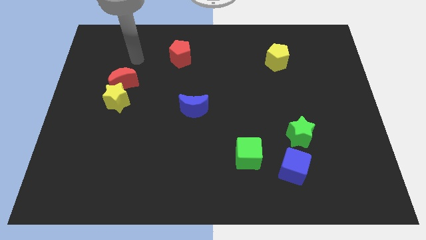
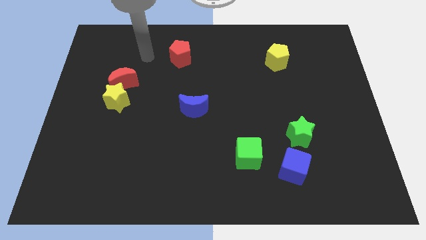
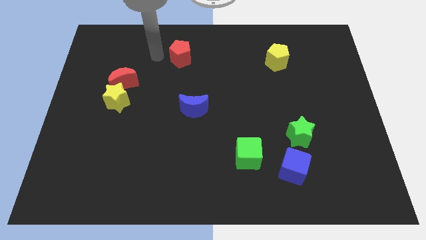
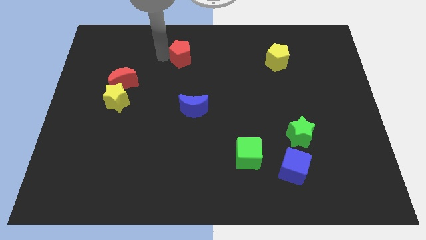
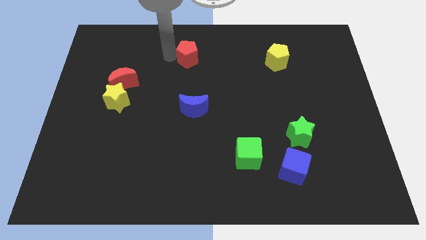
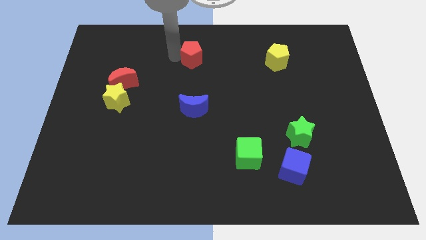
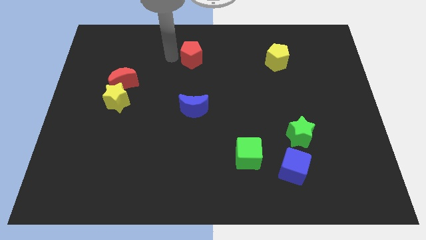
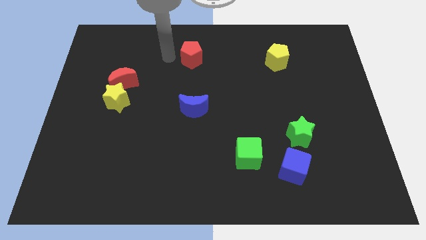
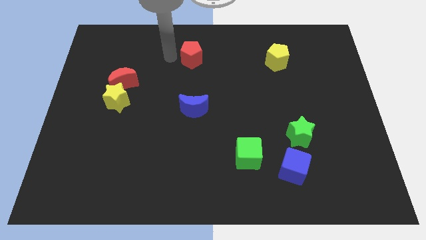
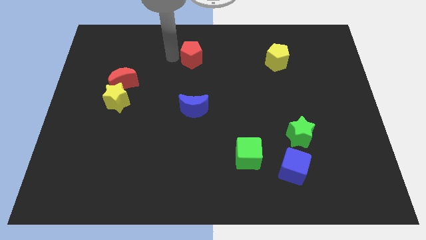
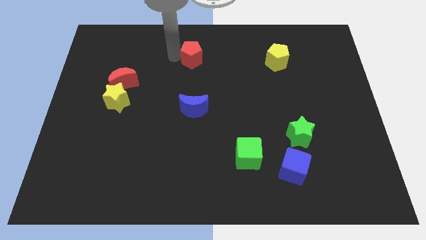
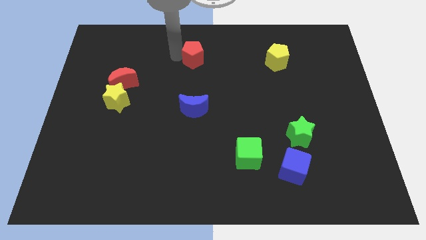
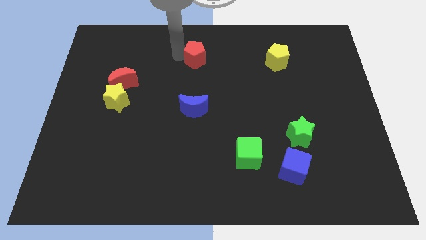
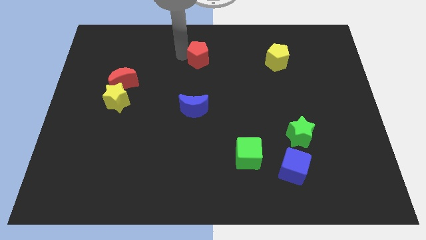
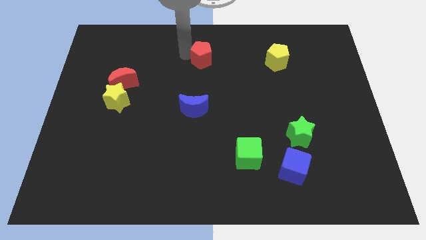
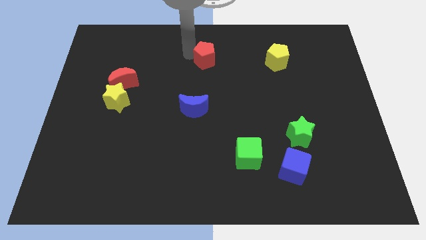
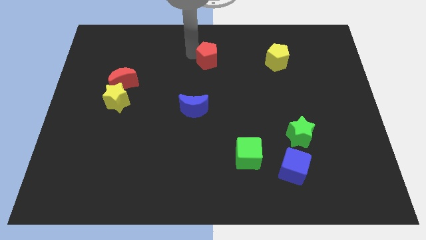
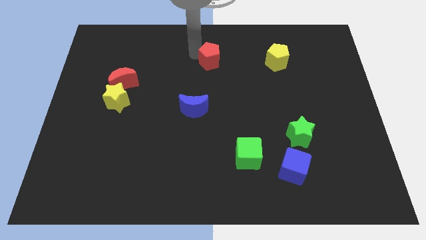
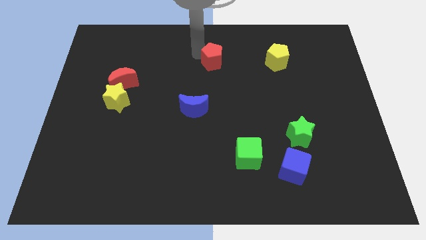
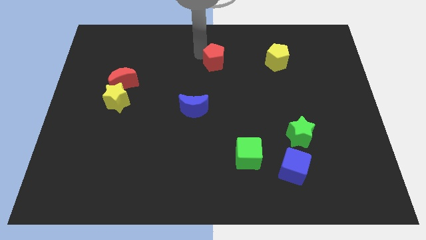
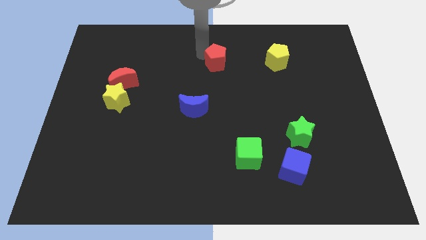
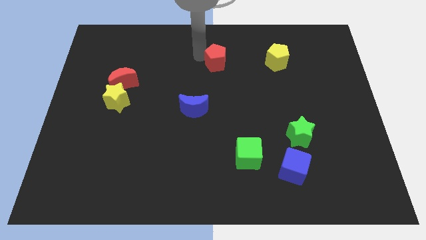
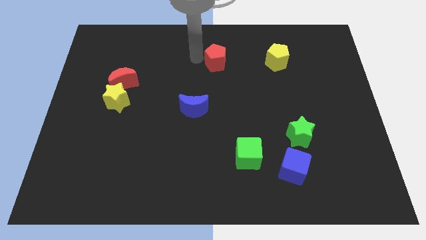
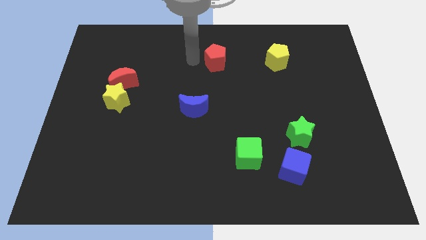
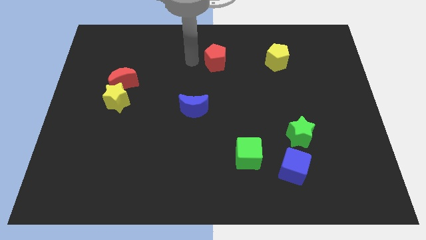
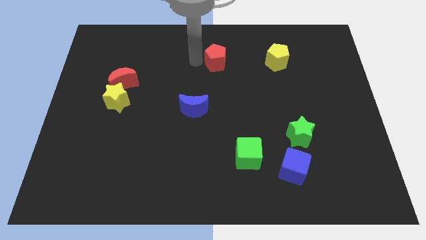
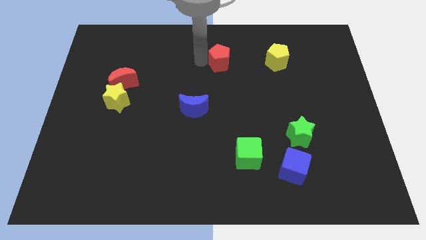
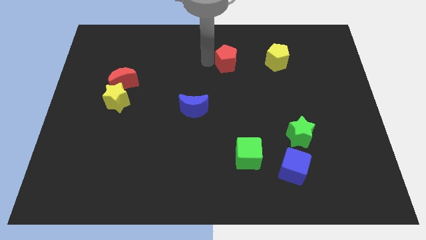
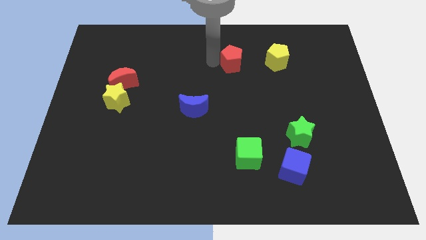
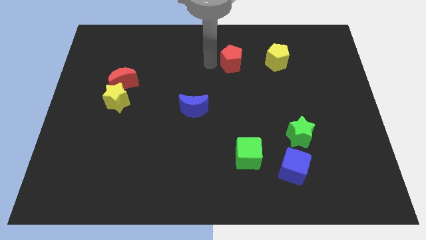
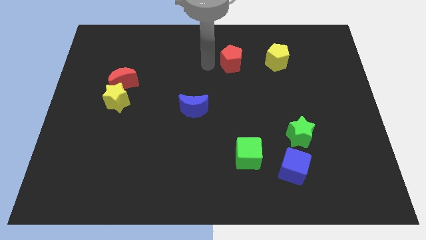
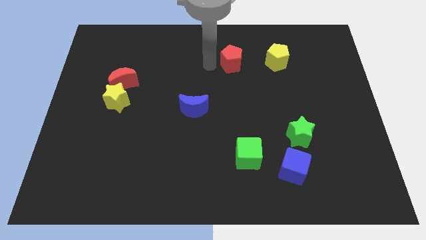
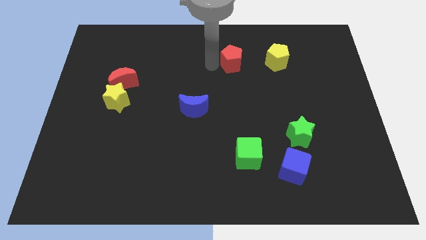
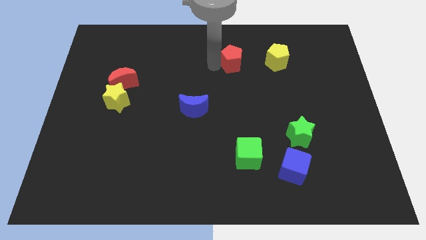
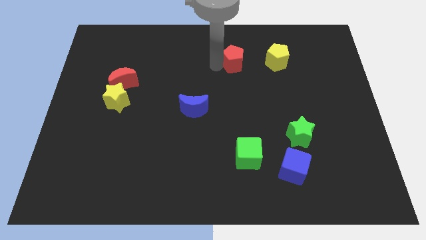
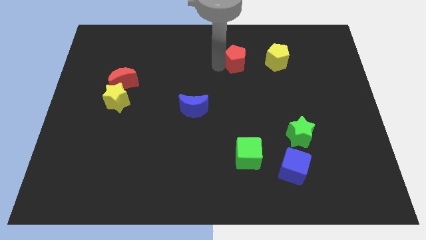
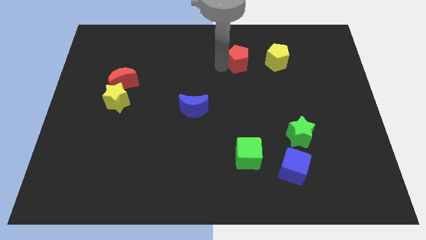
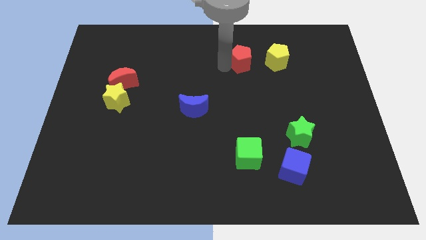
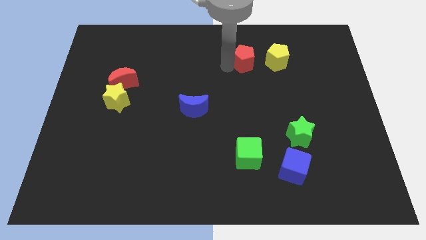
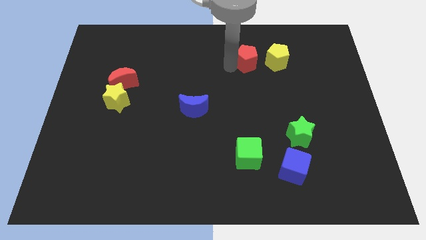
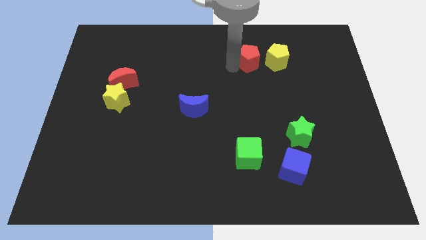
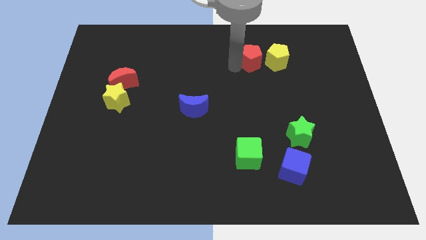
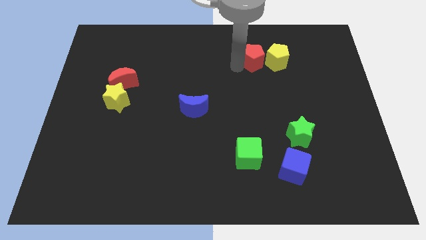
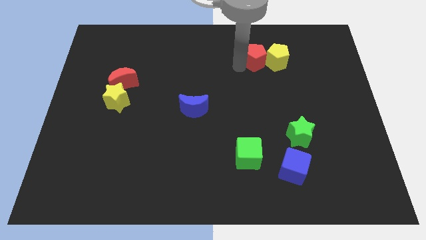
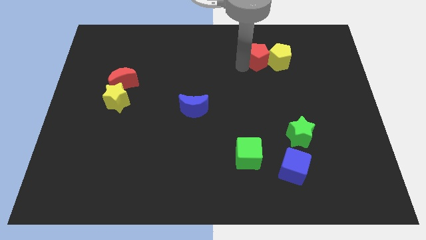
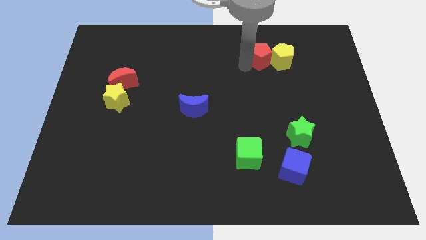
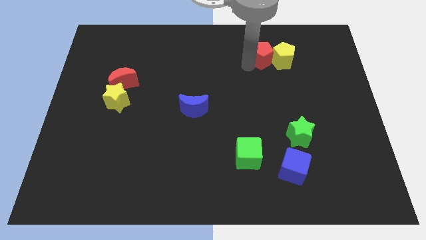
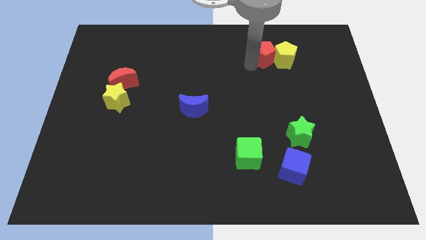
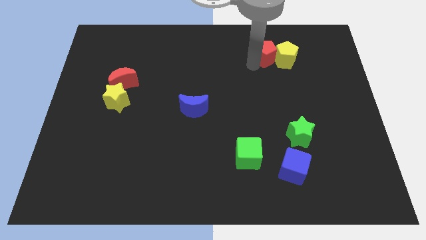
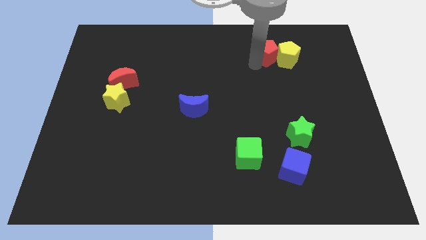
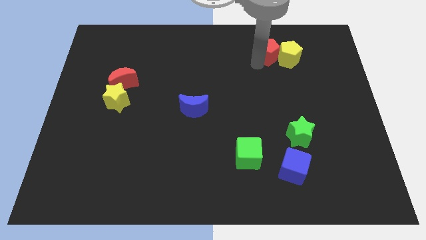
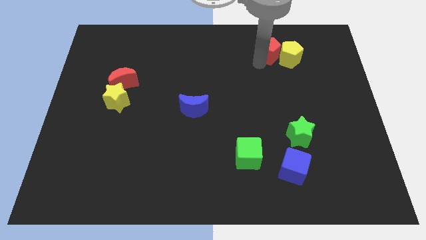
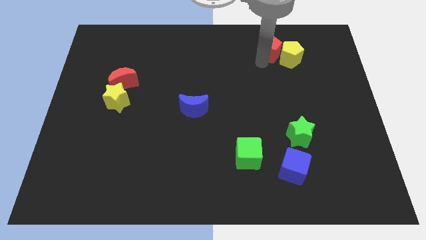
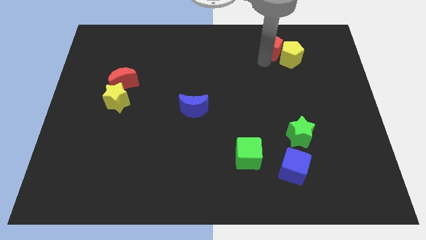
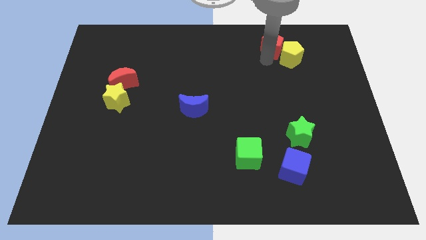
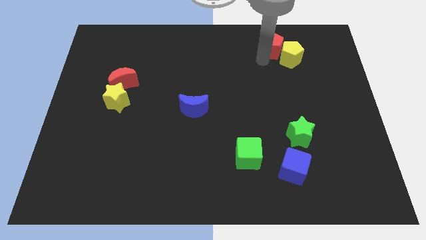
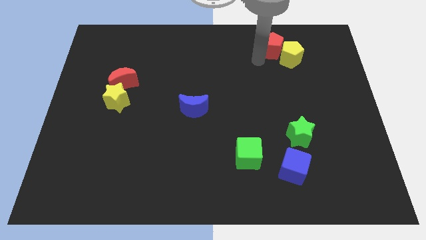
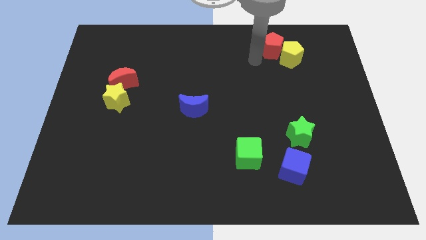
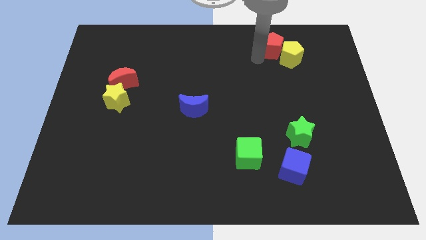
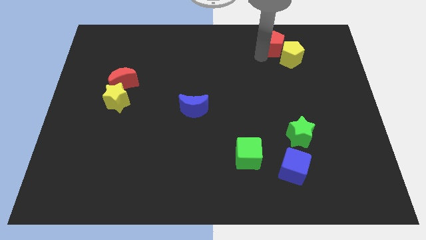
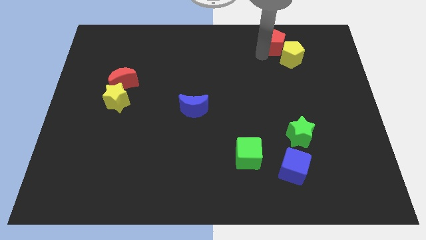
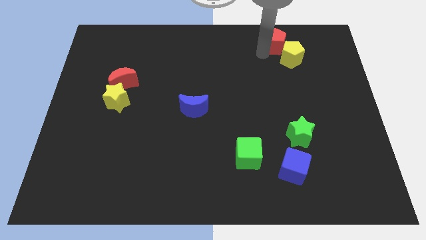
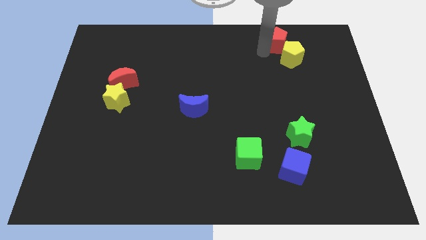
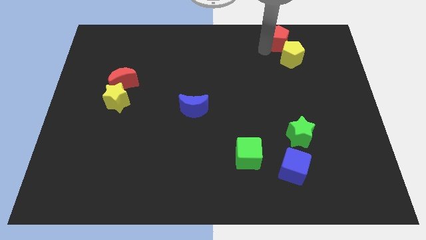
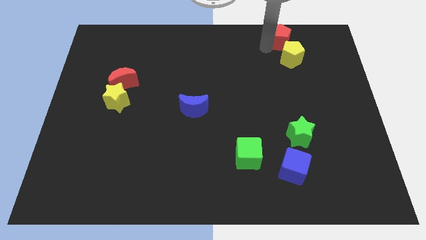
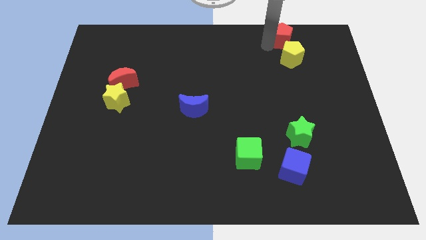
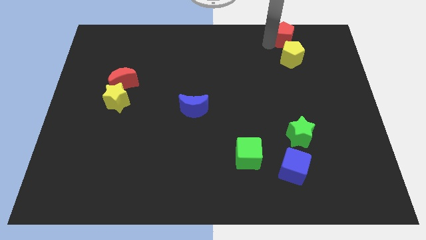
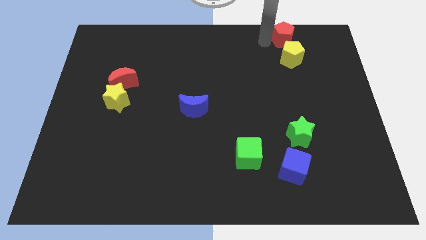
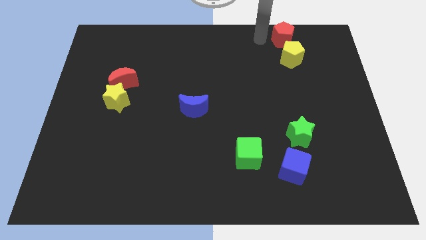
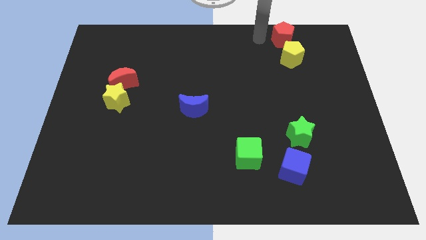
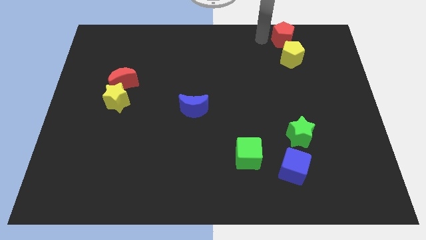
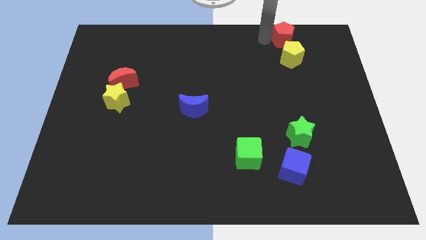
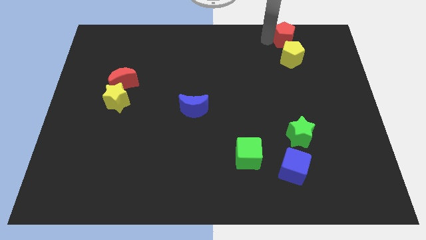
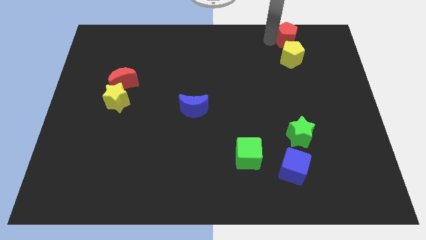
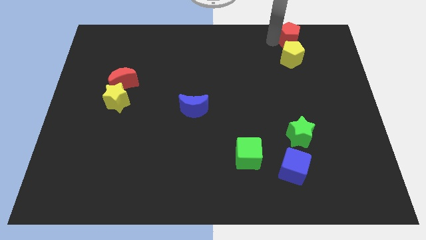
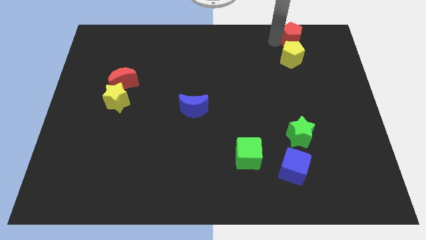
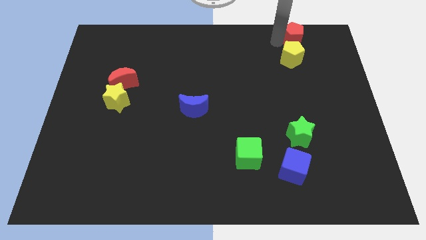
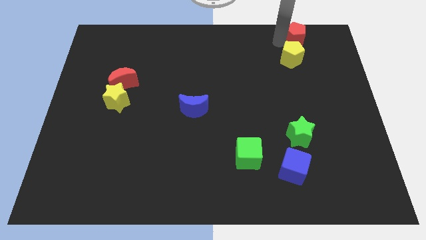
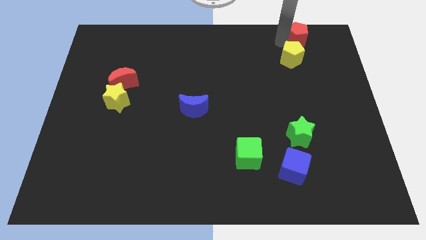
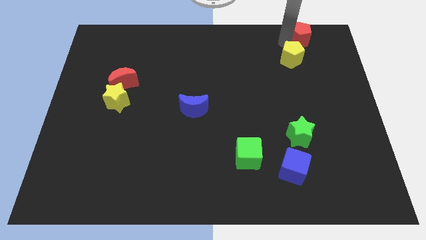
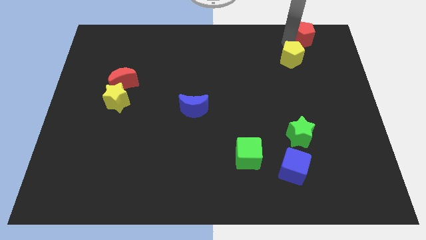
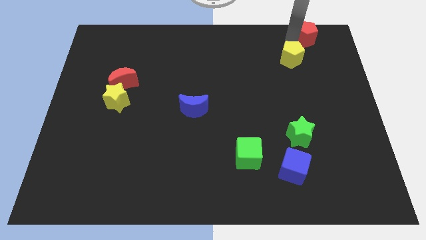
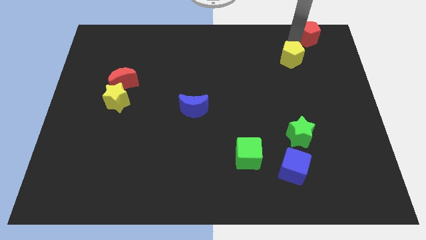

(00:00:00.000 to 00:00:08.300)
slide the red pentagon to the upper right corner
